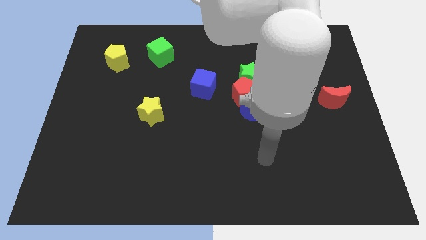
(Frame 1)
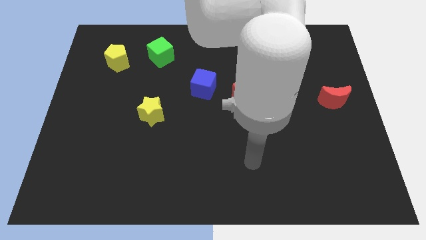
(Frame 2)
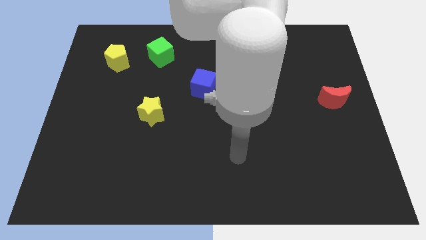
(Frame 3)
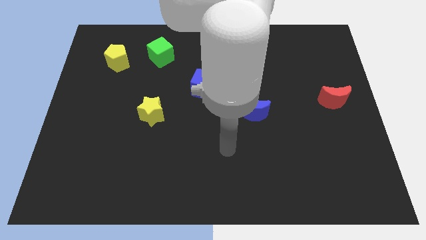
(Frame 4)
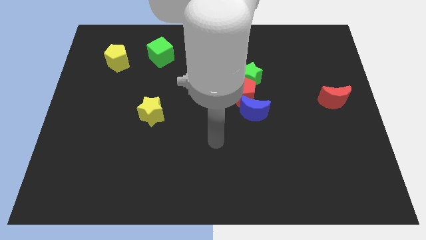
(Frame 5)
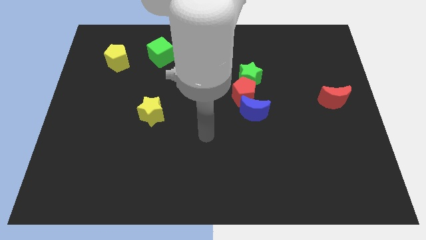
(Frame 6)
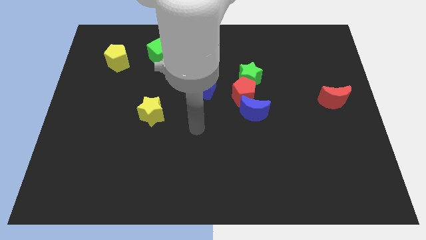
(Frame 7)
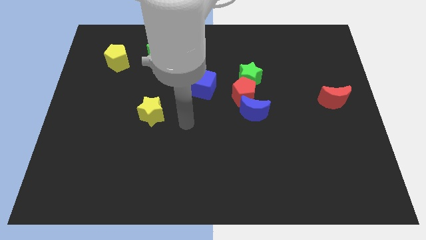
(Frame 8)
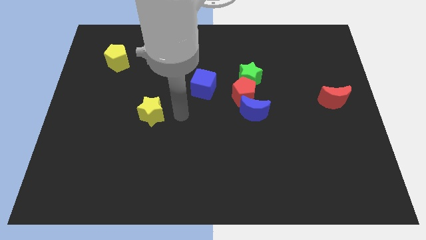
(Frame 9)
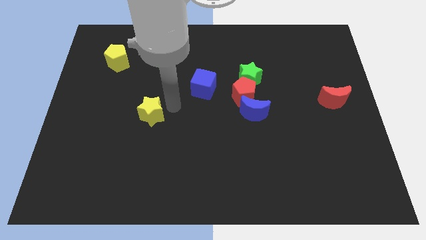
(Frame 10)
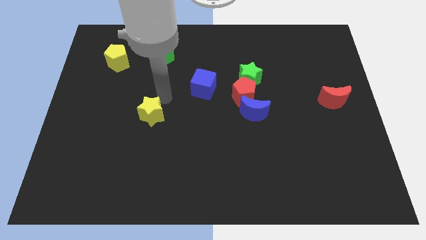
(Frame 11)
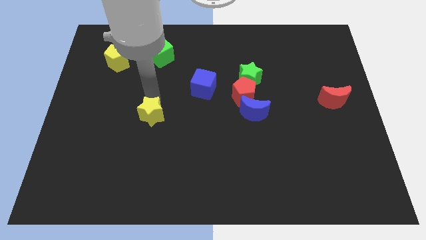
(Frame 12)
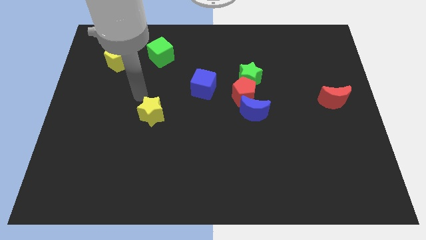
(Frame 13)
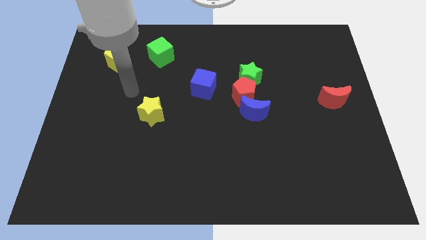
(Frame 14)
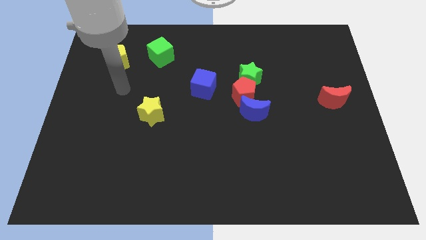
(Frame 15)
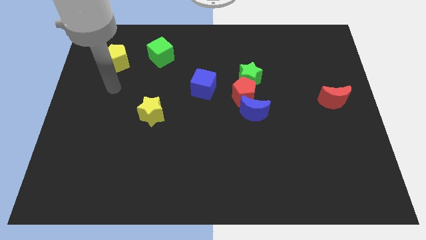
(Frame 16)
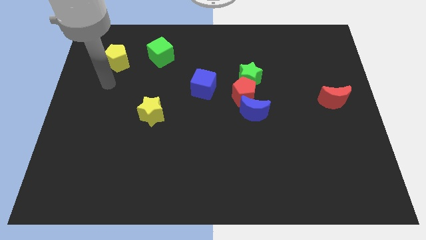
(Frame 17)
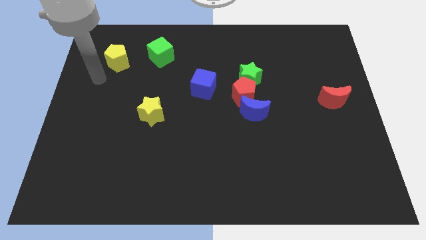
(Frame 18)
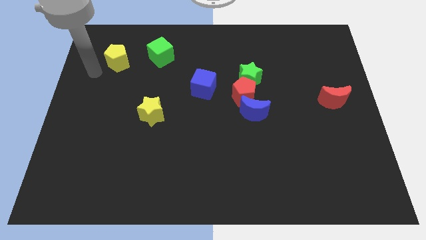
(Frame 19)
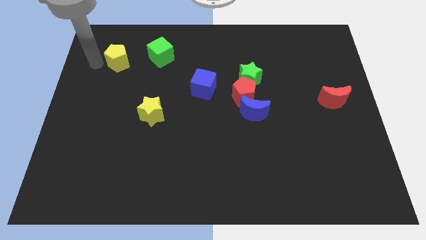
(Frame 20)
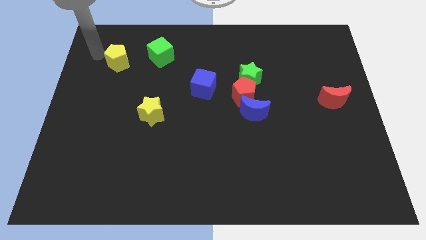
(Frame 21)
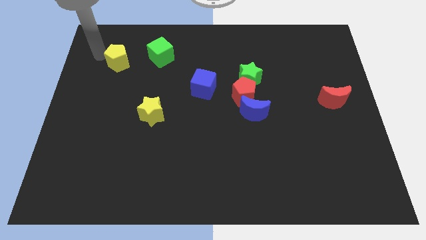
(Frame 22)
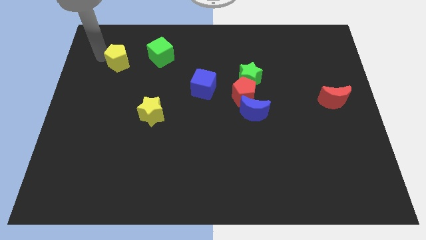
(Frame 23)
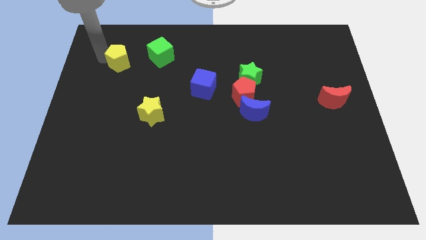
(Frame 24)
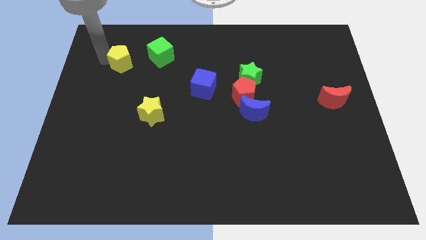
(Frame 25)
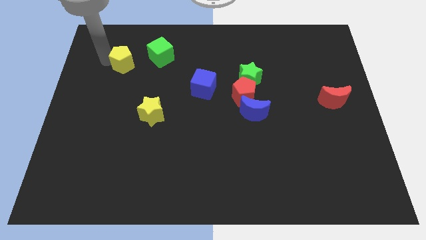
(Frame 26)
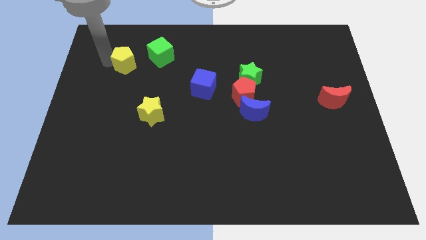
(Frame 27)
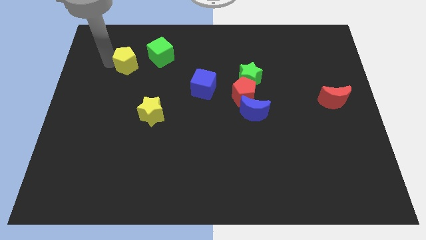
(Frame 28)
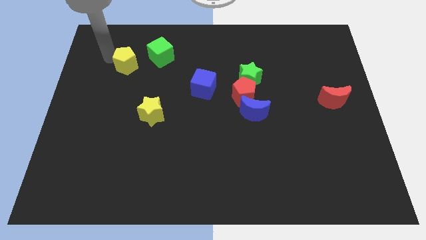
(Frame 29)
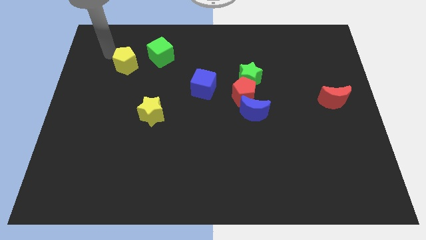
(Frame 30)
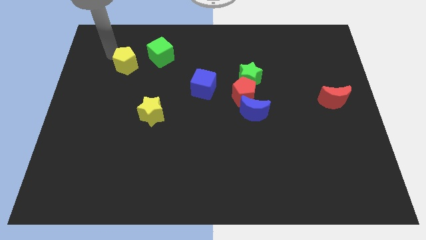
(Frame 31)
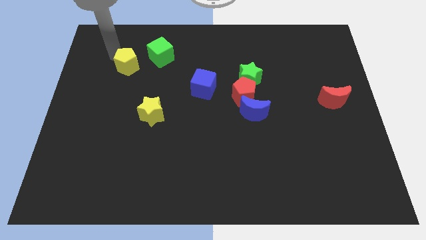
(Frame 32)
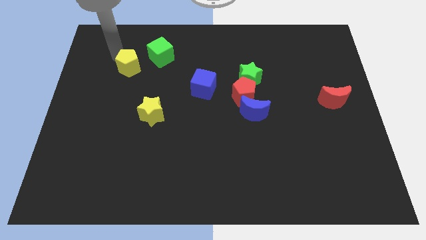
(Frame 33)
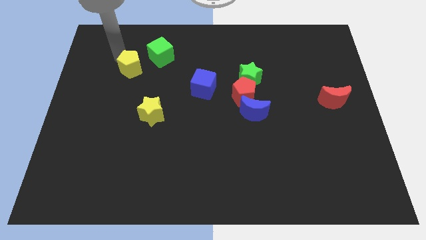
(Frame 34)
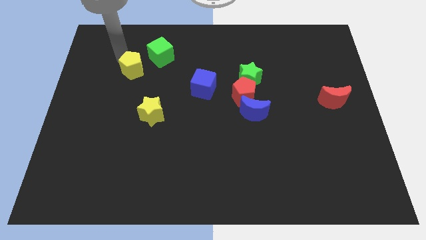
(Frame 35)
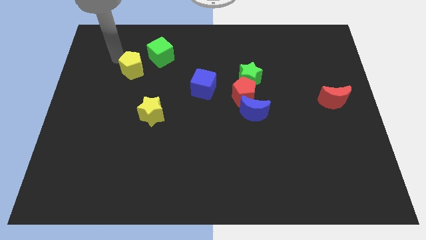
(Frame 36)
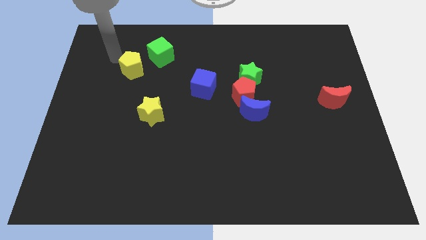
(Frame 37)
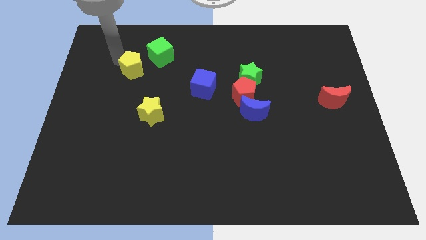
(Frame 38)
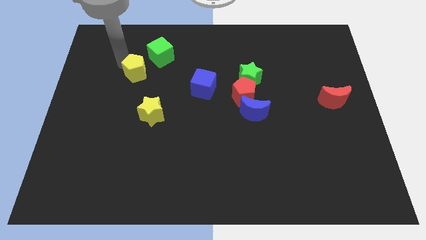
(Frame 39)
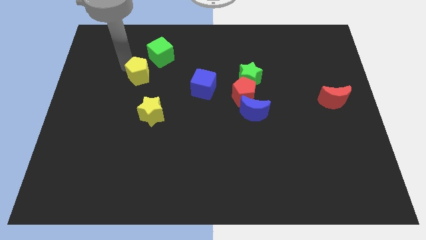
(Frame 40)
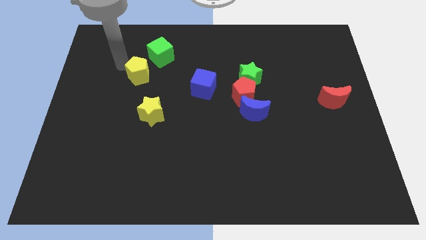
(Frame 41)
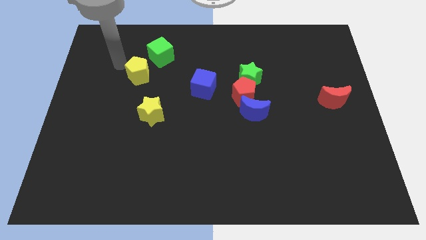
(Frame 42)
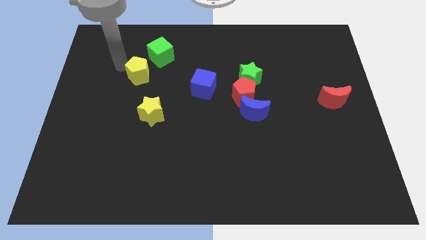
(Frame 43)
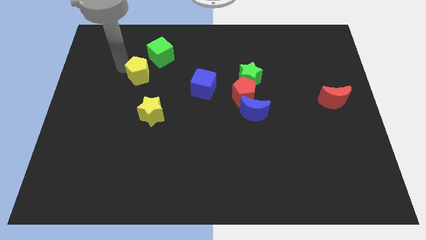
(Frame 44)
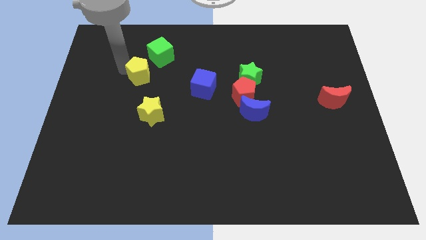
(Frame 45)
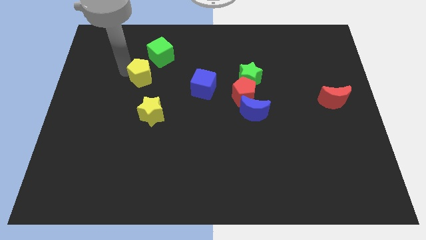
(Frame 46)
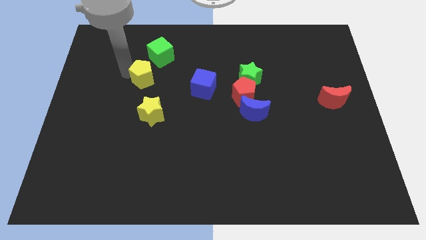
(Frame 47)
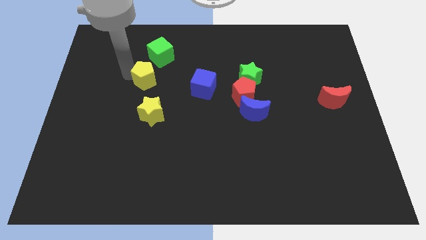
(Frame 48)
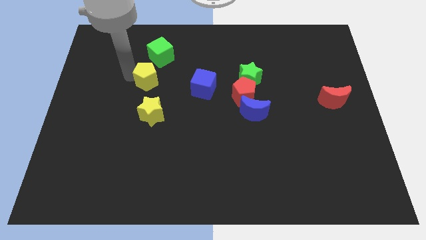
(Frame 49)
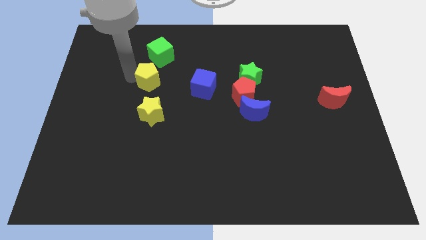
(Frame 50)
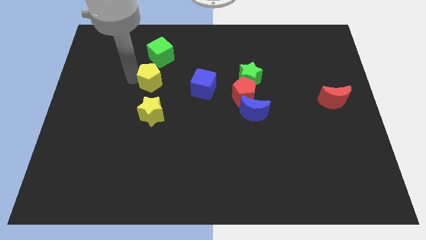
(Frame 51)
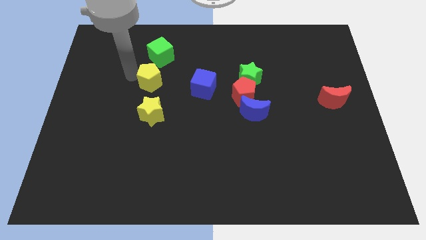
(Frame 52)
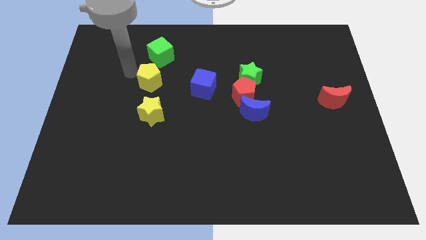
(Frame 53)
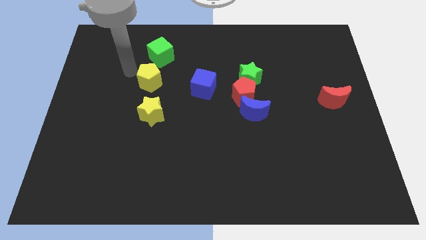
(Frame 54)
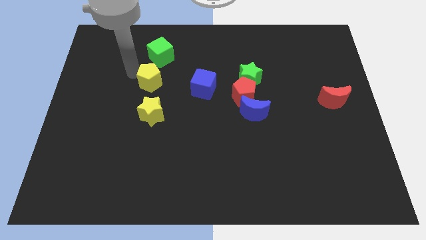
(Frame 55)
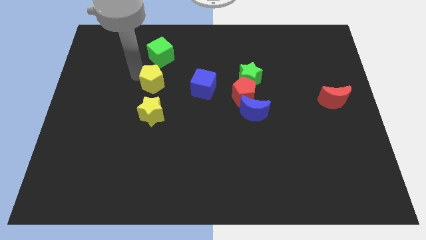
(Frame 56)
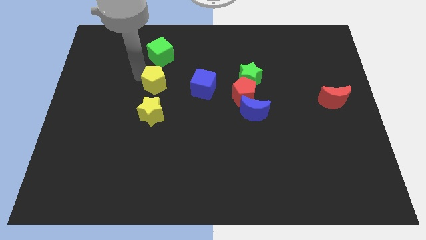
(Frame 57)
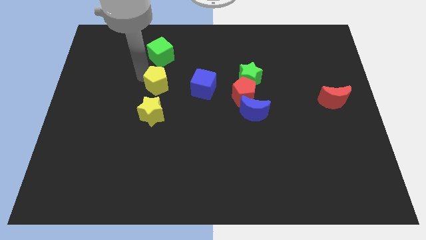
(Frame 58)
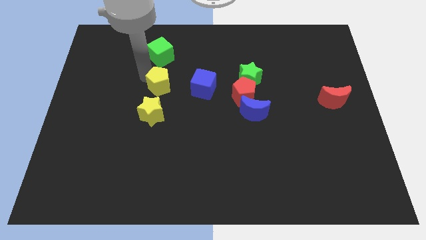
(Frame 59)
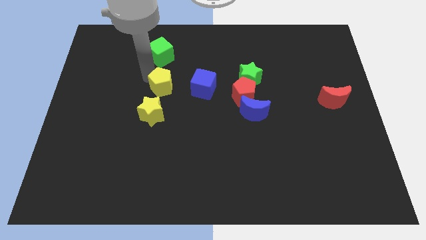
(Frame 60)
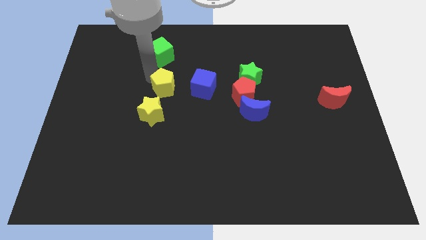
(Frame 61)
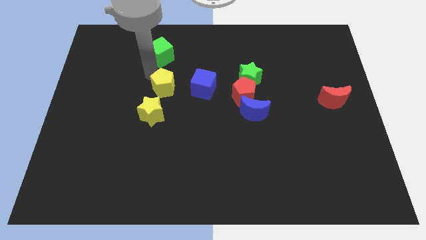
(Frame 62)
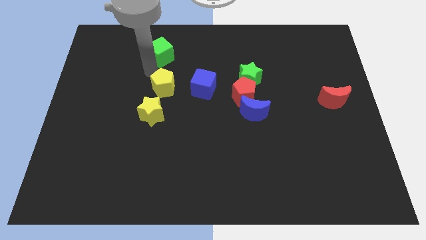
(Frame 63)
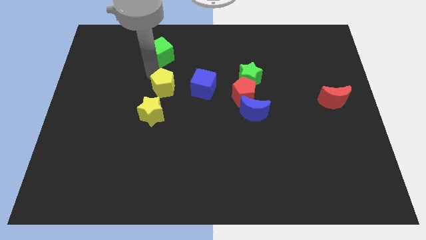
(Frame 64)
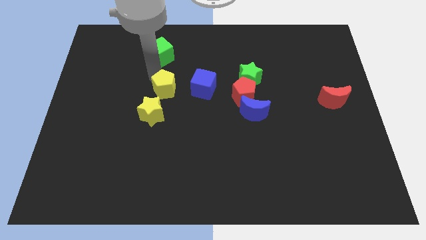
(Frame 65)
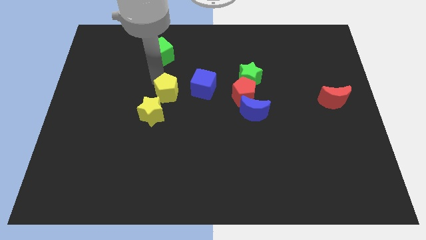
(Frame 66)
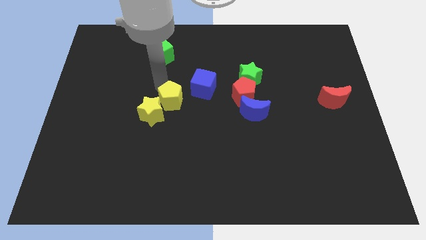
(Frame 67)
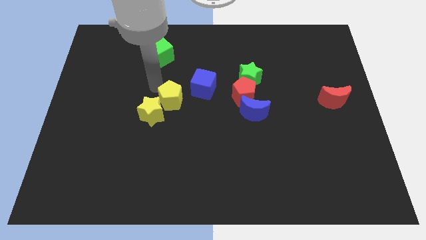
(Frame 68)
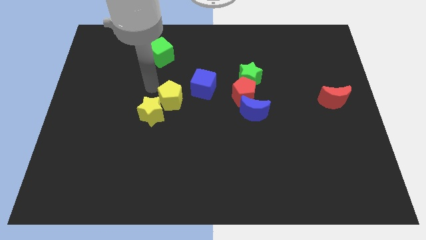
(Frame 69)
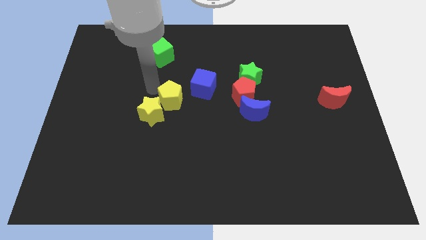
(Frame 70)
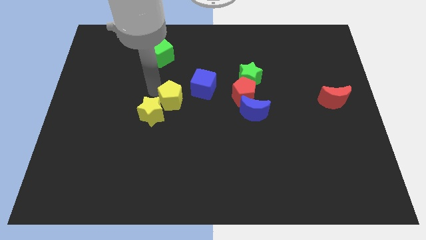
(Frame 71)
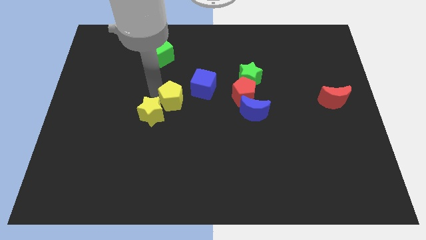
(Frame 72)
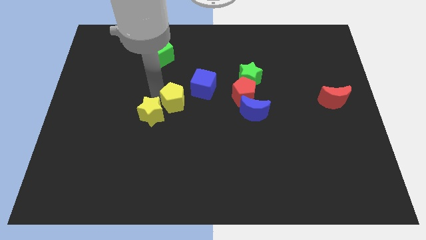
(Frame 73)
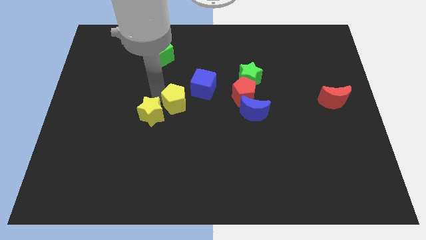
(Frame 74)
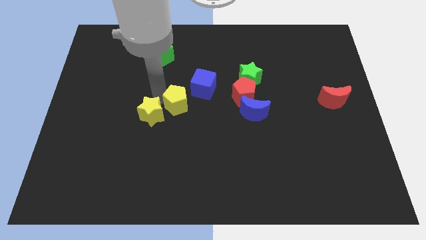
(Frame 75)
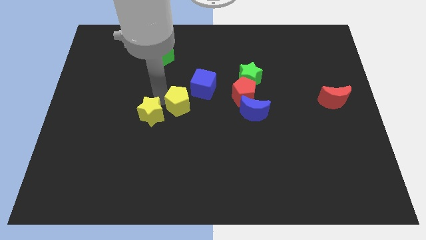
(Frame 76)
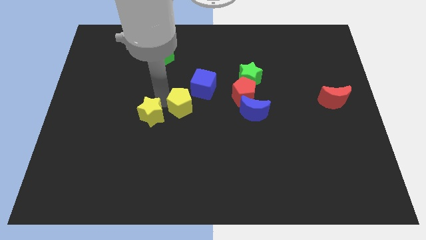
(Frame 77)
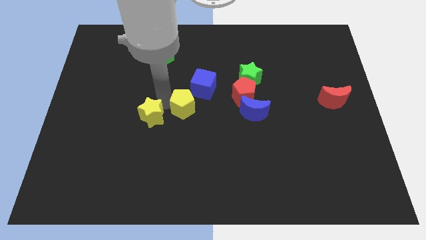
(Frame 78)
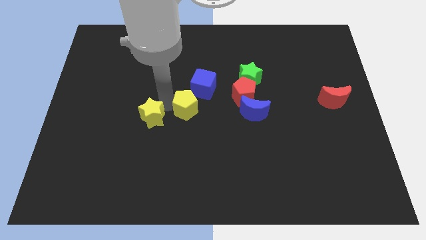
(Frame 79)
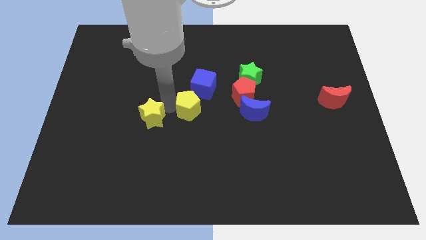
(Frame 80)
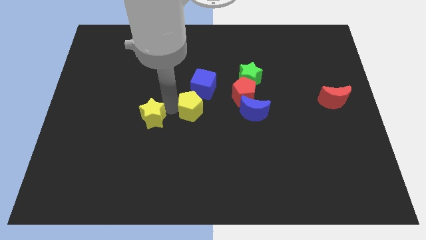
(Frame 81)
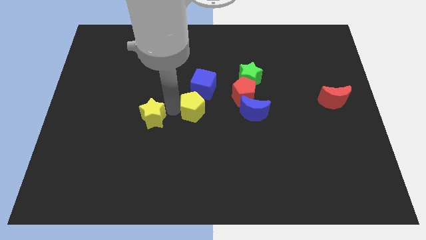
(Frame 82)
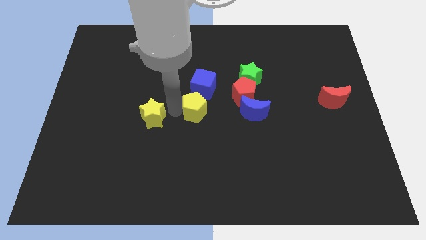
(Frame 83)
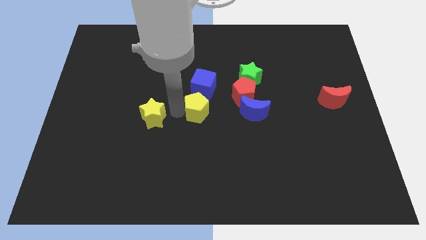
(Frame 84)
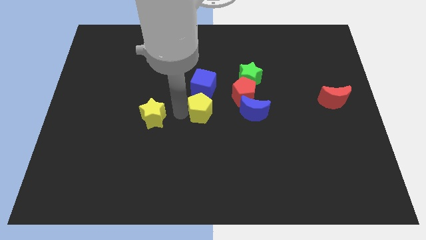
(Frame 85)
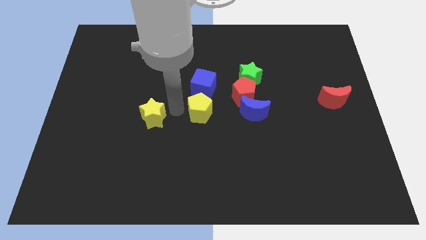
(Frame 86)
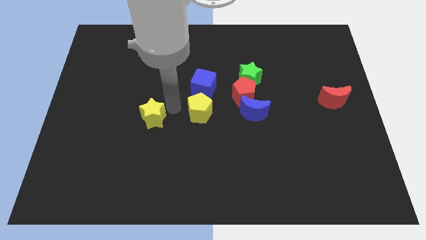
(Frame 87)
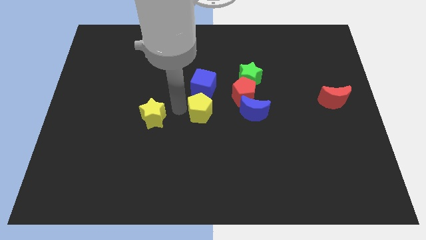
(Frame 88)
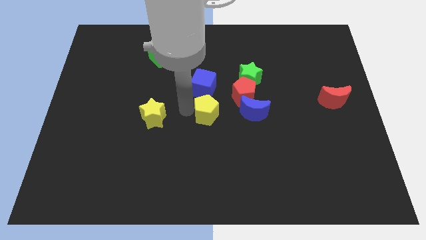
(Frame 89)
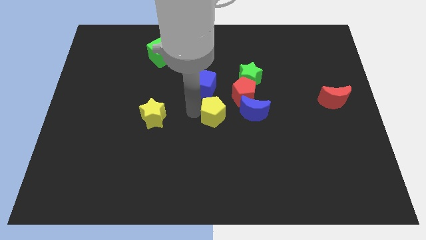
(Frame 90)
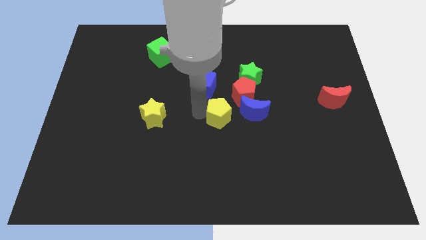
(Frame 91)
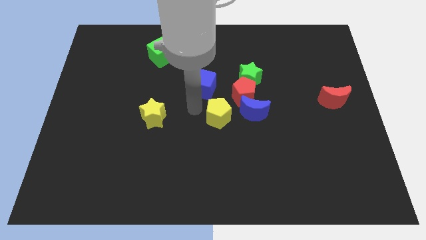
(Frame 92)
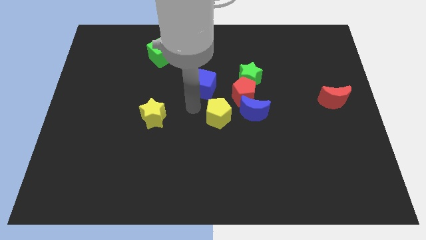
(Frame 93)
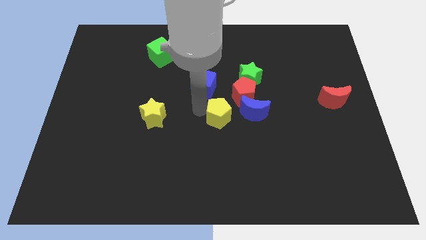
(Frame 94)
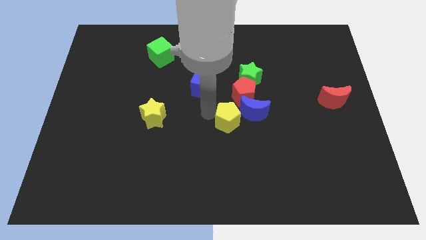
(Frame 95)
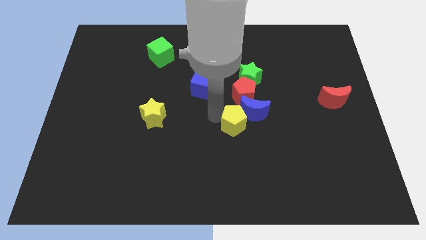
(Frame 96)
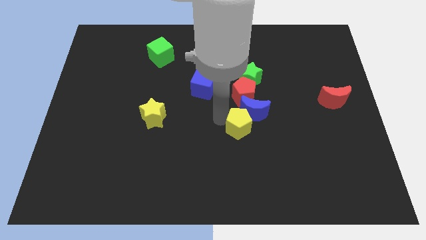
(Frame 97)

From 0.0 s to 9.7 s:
push the yellow pentagon below the green star
